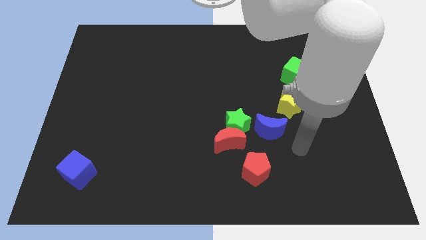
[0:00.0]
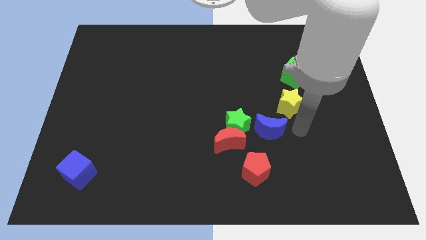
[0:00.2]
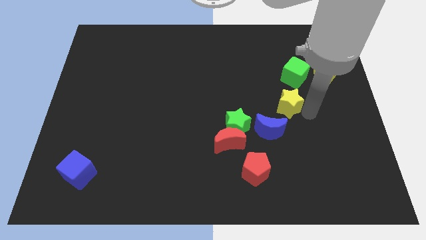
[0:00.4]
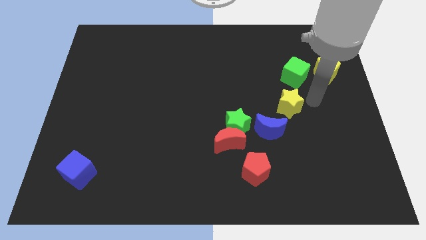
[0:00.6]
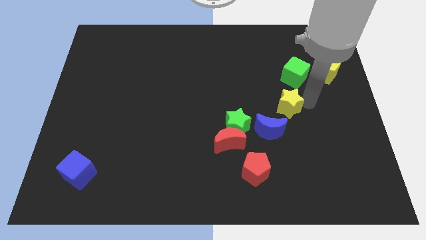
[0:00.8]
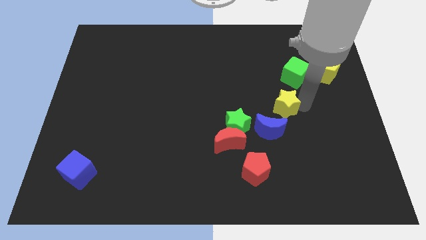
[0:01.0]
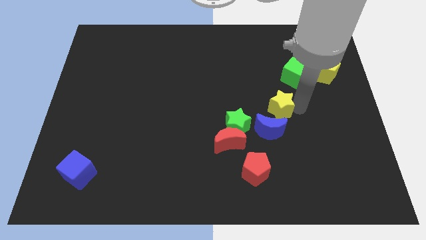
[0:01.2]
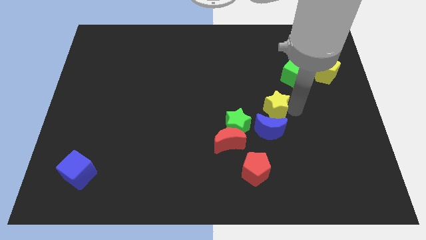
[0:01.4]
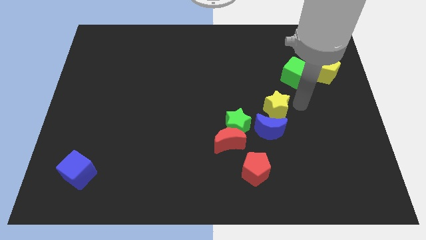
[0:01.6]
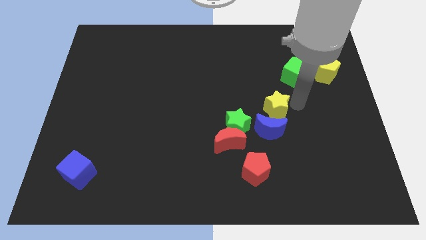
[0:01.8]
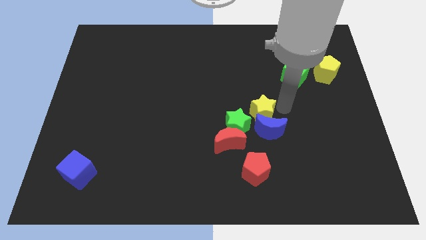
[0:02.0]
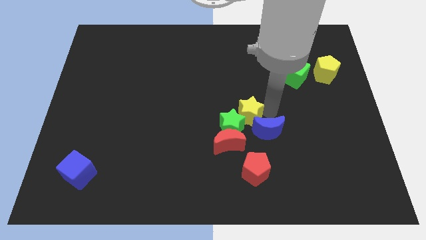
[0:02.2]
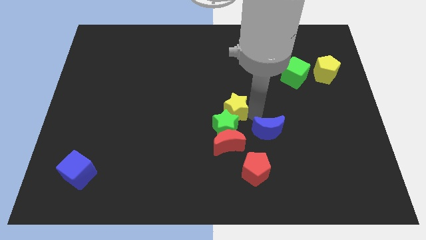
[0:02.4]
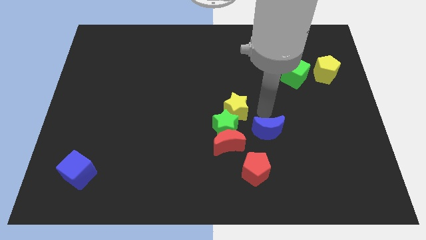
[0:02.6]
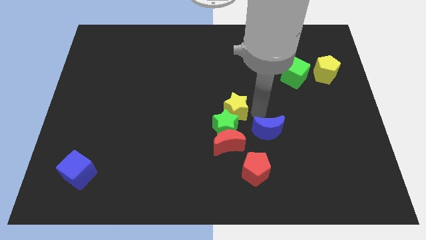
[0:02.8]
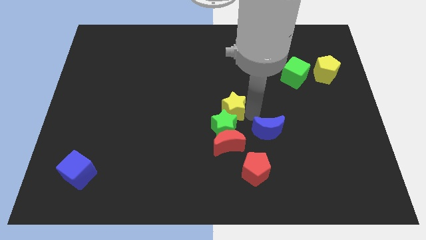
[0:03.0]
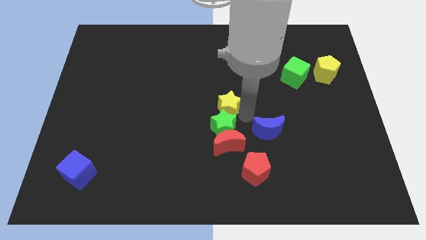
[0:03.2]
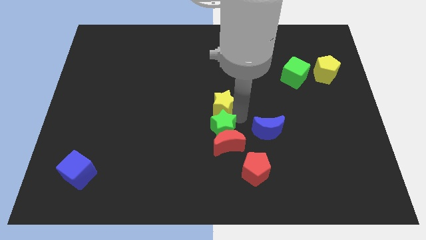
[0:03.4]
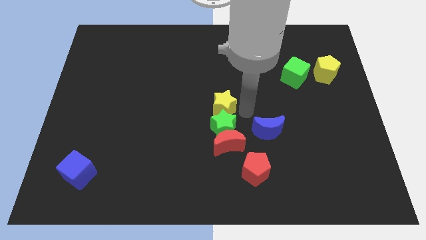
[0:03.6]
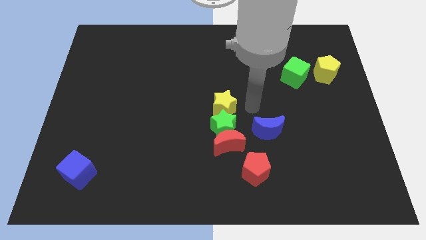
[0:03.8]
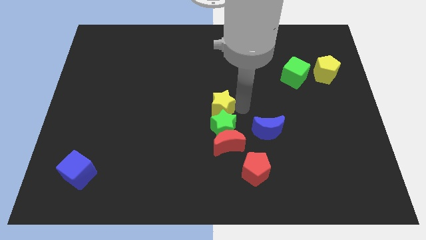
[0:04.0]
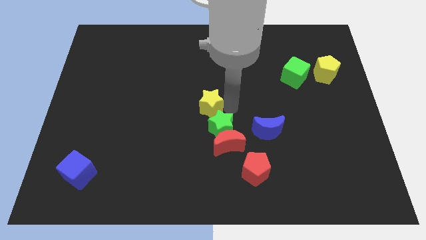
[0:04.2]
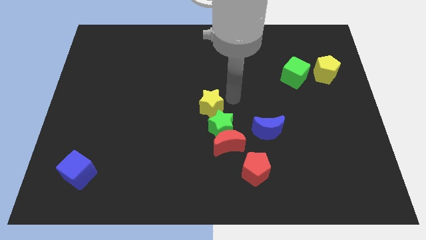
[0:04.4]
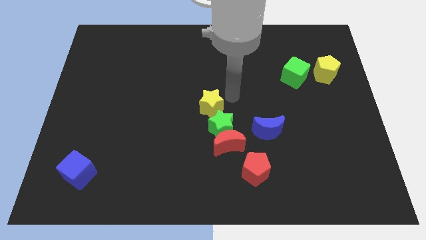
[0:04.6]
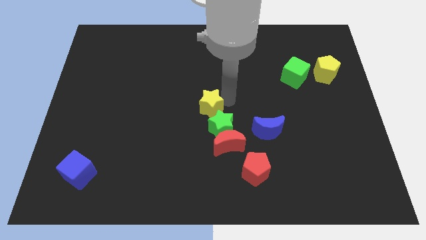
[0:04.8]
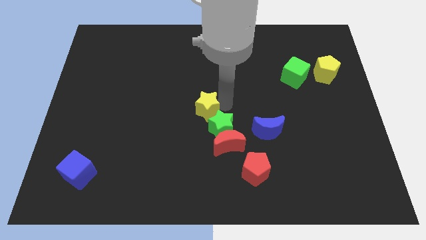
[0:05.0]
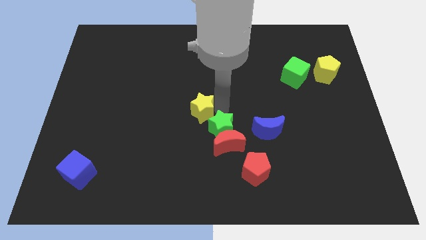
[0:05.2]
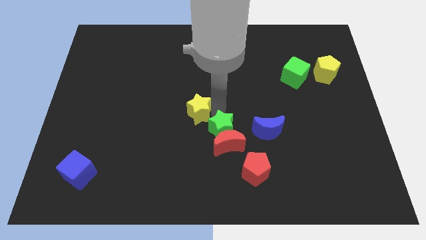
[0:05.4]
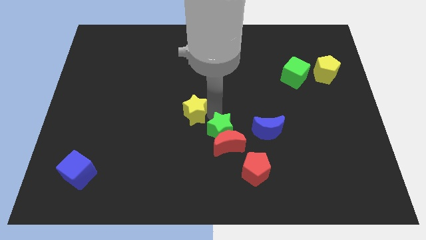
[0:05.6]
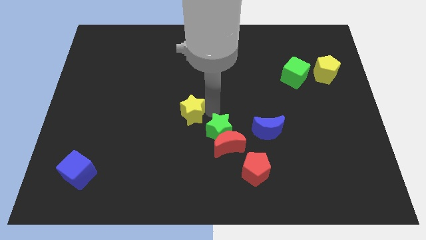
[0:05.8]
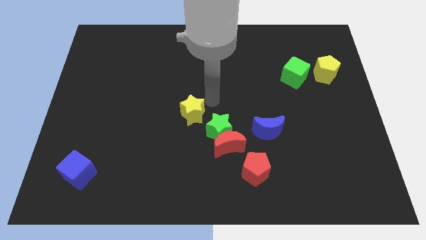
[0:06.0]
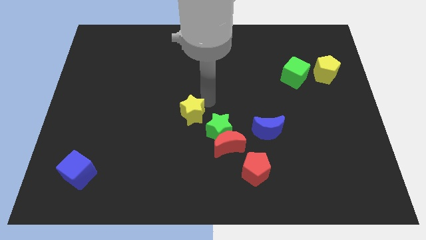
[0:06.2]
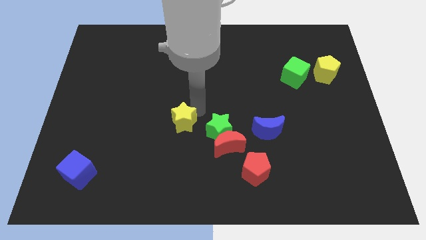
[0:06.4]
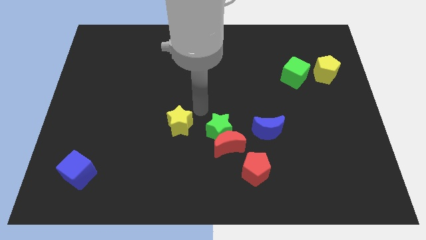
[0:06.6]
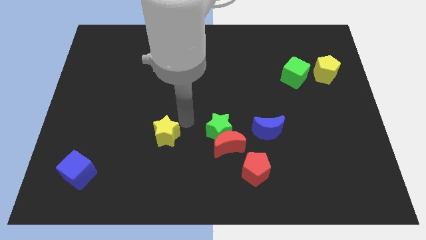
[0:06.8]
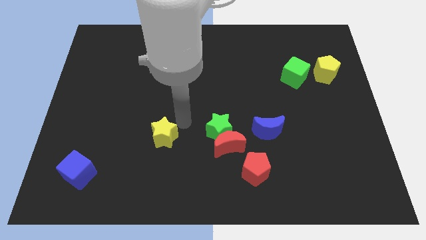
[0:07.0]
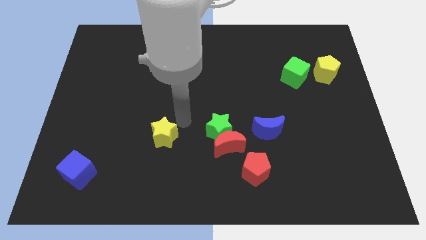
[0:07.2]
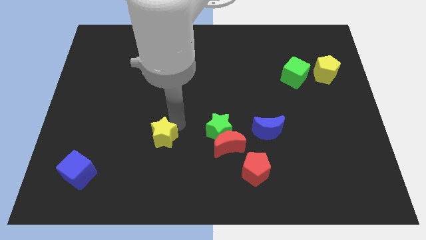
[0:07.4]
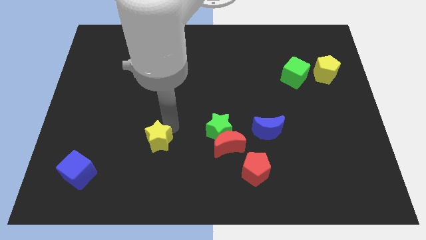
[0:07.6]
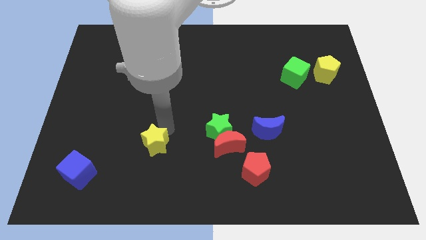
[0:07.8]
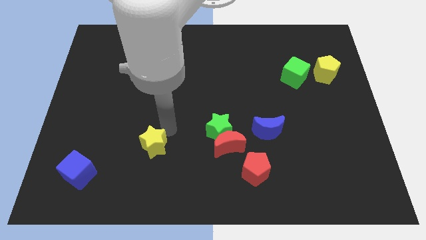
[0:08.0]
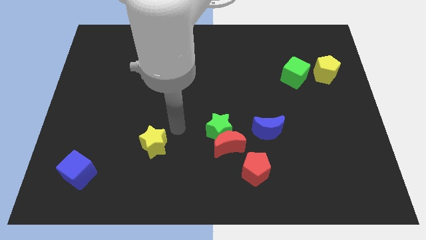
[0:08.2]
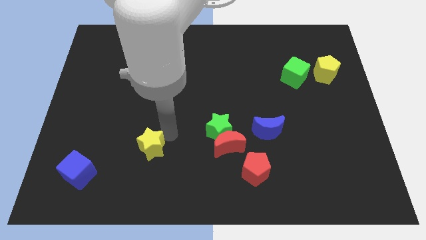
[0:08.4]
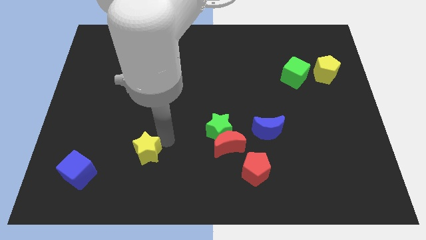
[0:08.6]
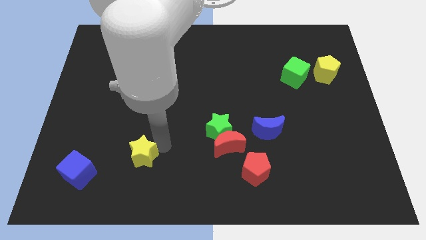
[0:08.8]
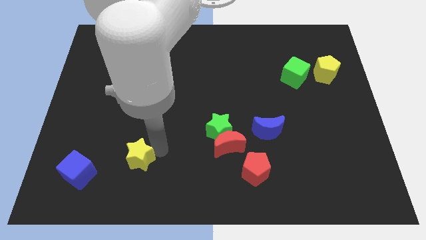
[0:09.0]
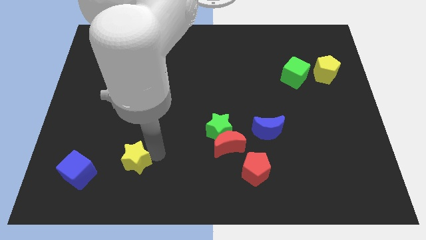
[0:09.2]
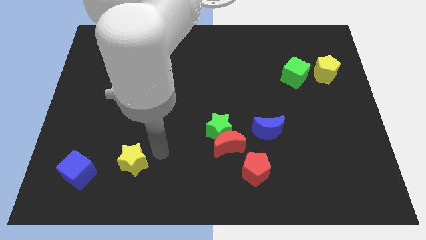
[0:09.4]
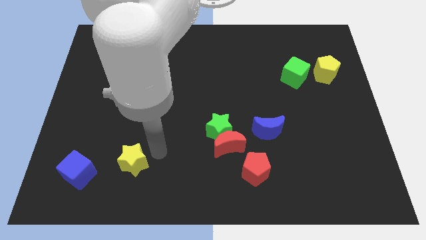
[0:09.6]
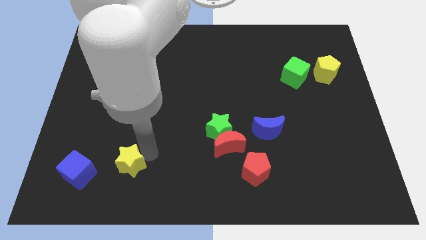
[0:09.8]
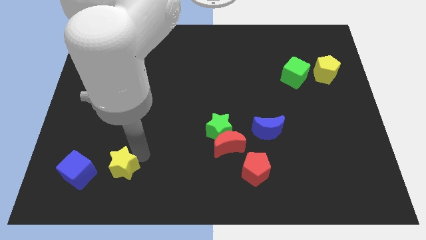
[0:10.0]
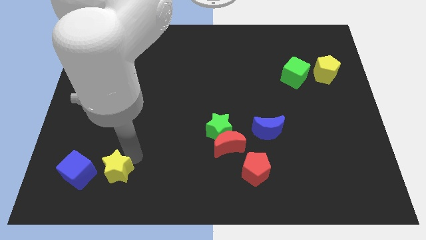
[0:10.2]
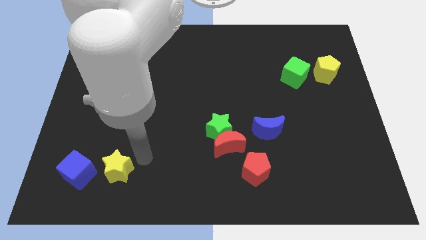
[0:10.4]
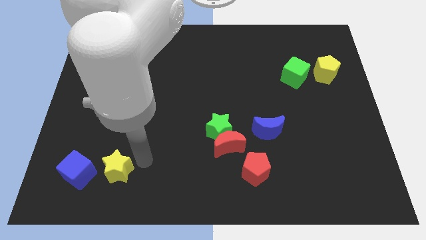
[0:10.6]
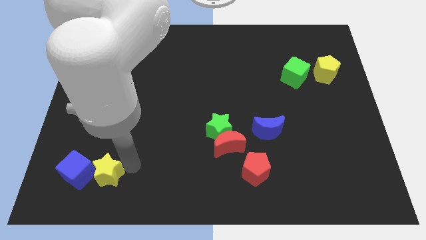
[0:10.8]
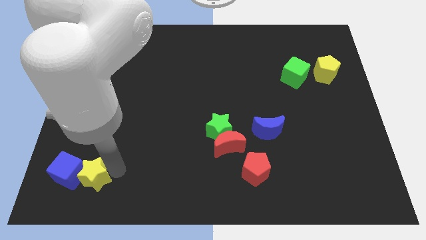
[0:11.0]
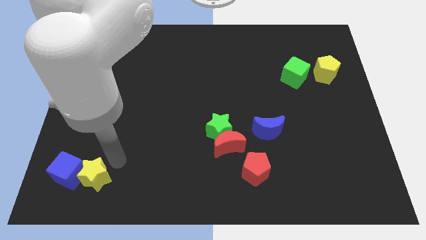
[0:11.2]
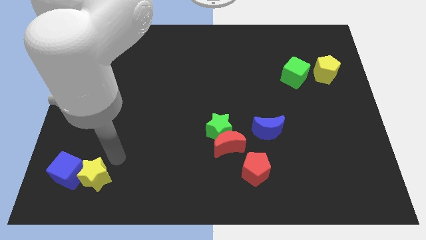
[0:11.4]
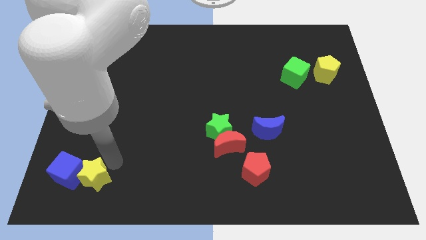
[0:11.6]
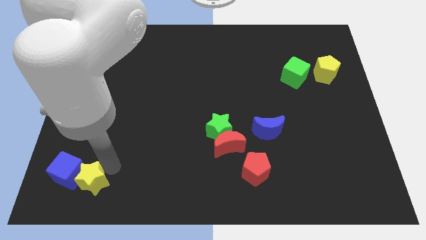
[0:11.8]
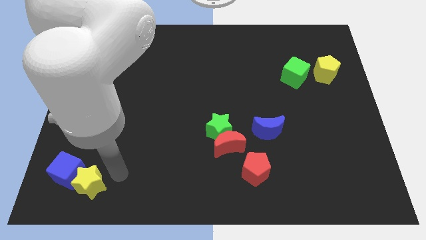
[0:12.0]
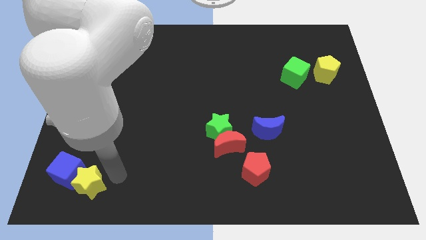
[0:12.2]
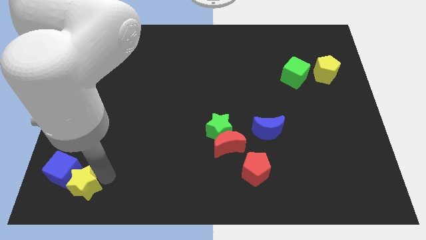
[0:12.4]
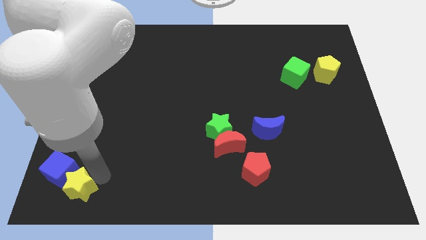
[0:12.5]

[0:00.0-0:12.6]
put the yellow star to the bottom left

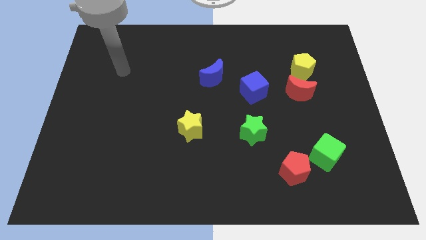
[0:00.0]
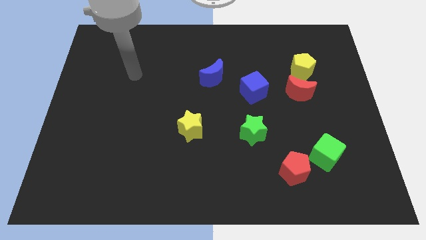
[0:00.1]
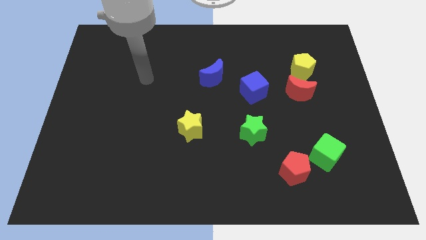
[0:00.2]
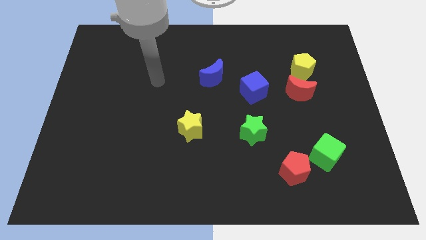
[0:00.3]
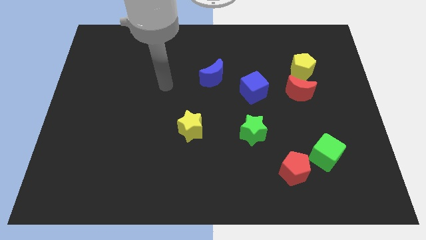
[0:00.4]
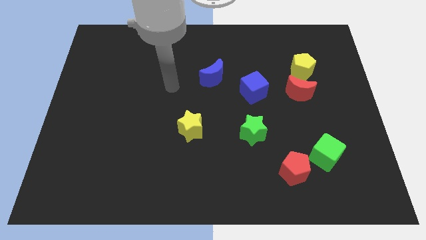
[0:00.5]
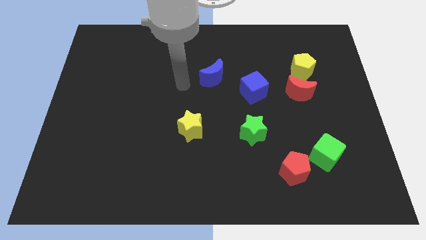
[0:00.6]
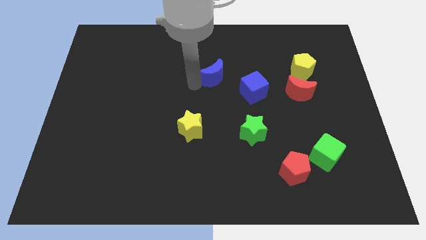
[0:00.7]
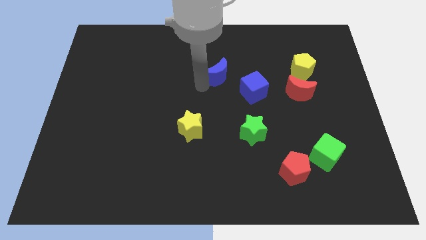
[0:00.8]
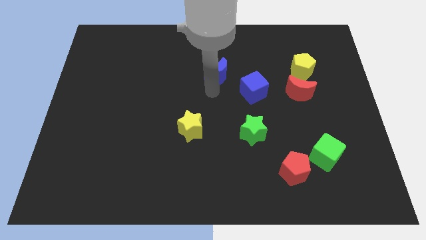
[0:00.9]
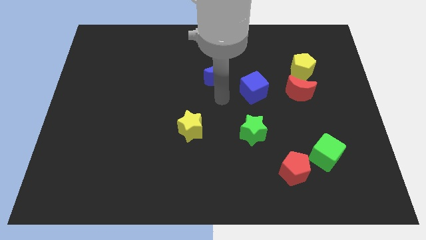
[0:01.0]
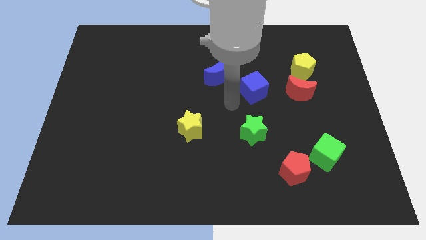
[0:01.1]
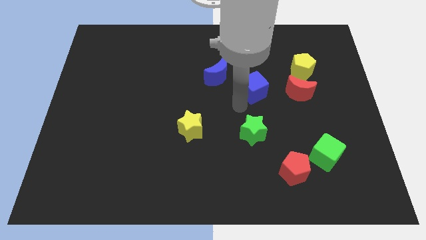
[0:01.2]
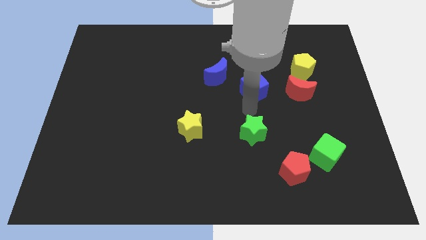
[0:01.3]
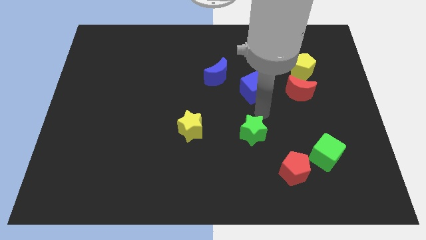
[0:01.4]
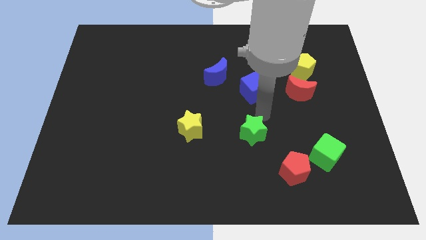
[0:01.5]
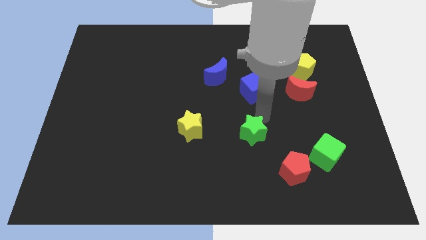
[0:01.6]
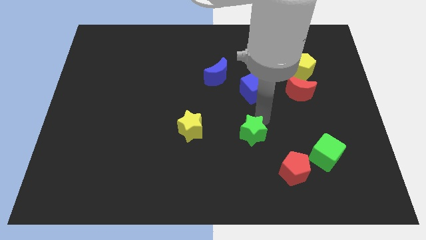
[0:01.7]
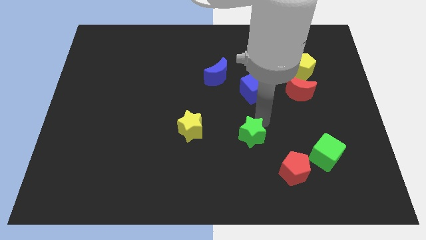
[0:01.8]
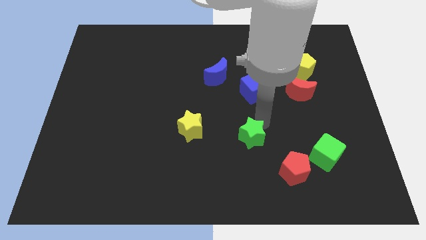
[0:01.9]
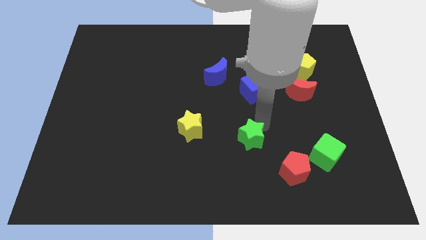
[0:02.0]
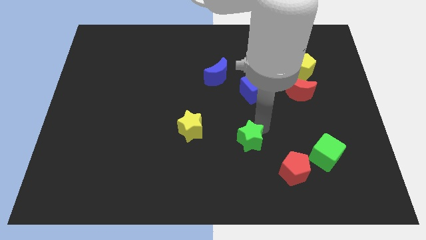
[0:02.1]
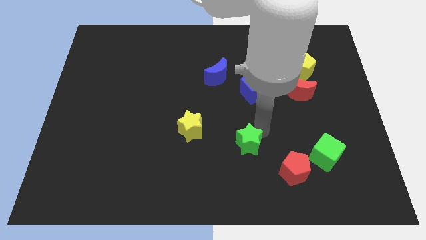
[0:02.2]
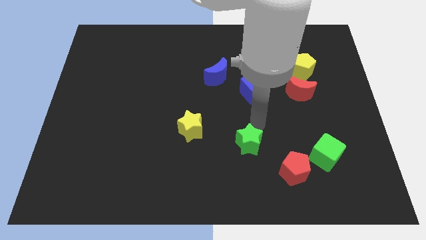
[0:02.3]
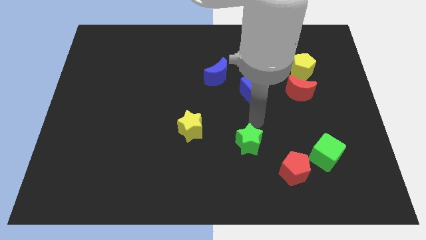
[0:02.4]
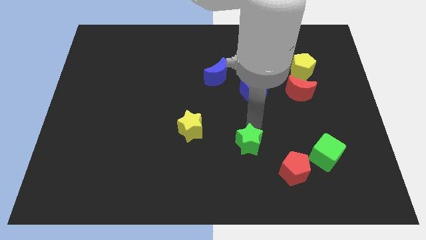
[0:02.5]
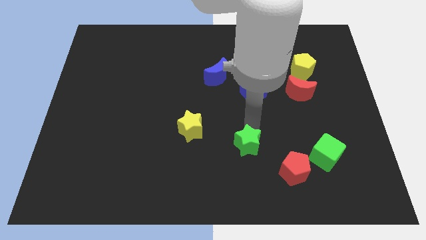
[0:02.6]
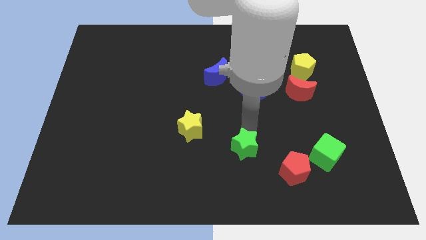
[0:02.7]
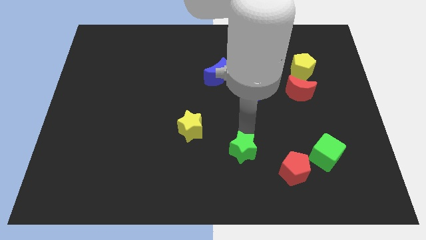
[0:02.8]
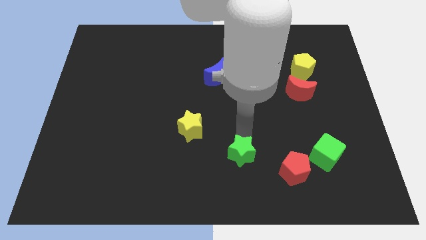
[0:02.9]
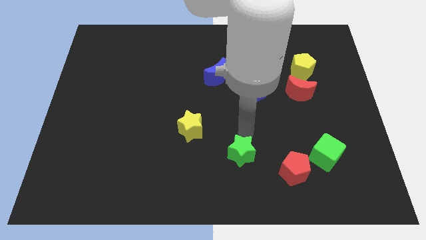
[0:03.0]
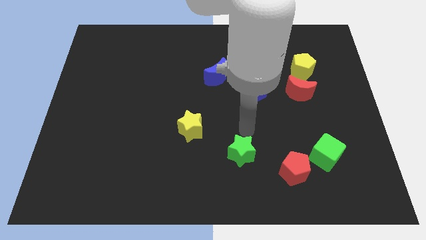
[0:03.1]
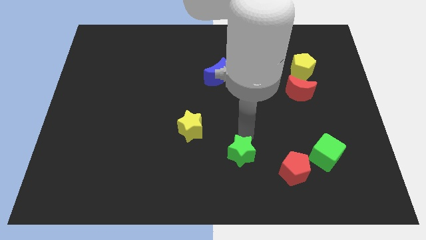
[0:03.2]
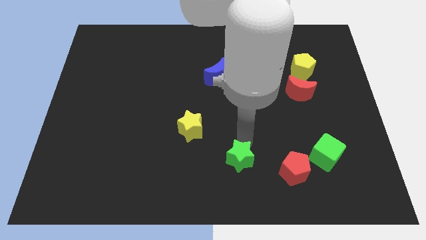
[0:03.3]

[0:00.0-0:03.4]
move the green star to the bottom
